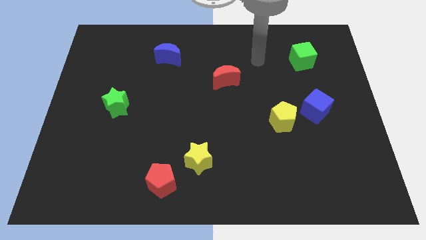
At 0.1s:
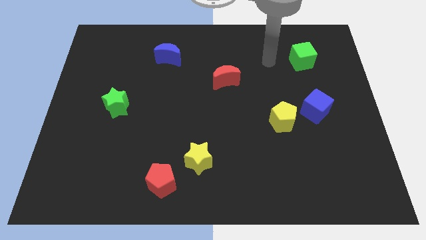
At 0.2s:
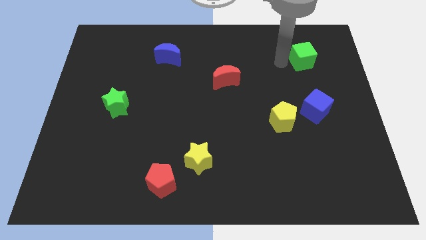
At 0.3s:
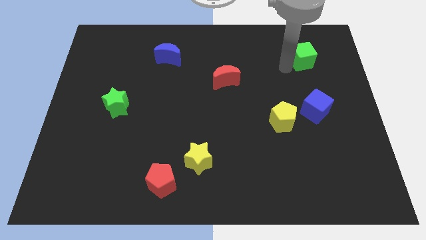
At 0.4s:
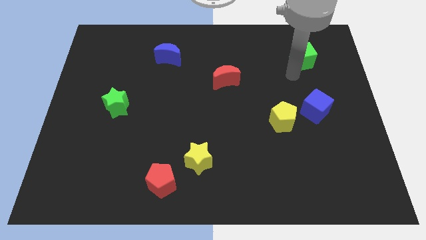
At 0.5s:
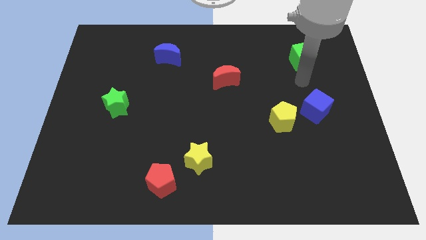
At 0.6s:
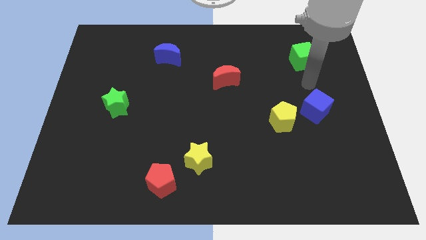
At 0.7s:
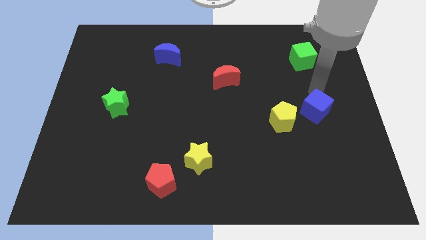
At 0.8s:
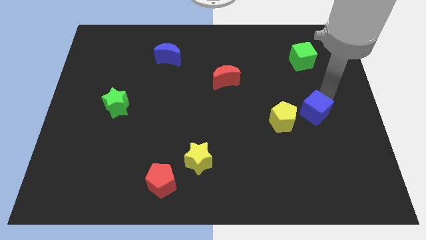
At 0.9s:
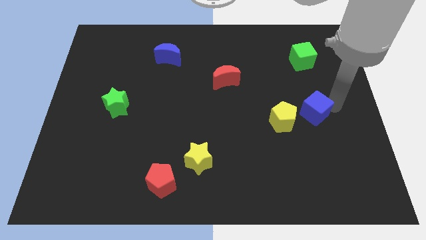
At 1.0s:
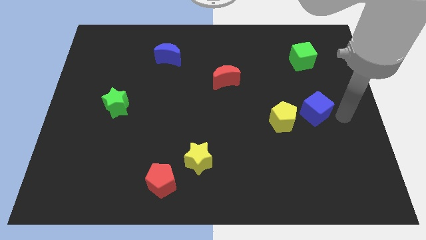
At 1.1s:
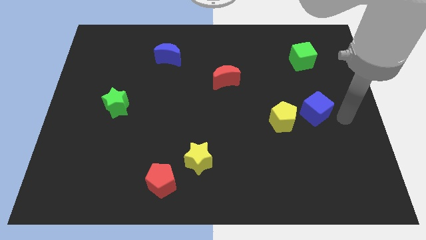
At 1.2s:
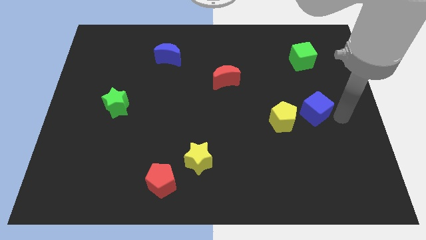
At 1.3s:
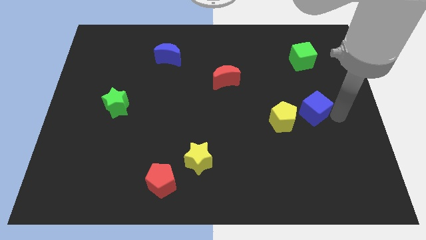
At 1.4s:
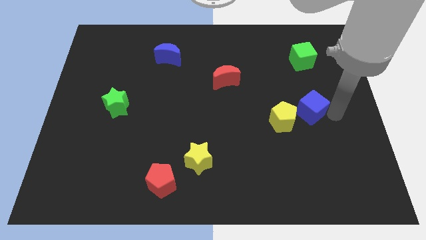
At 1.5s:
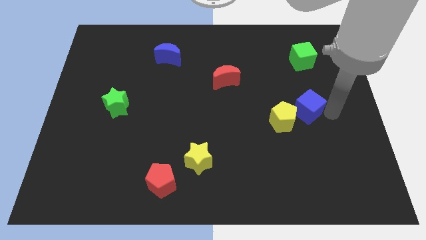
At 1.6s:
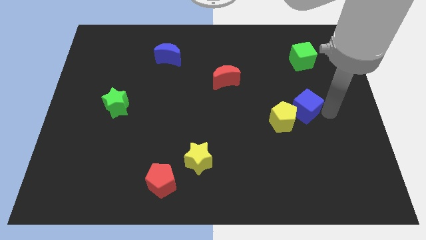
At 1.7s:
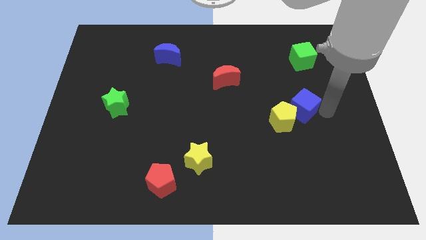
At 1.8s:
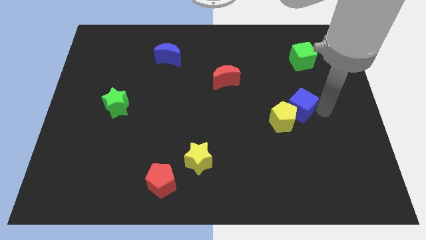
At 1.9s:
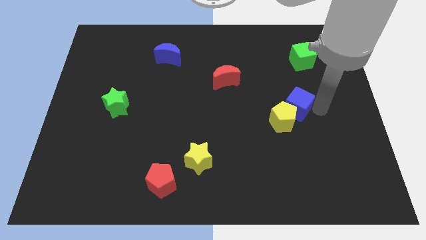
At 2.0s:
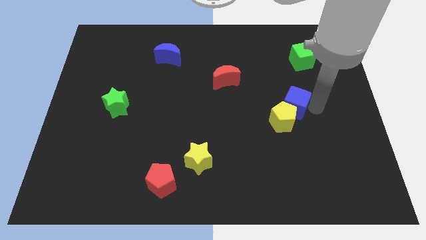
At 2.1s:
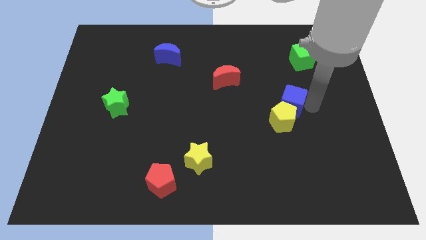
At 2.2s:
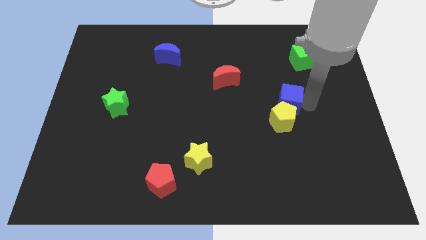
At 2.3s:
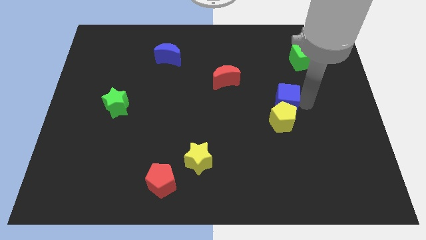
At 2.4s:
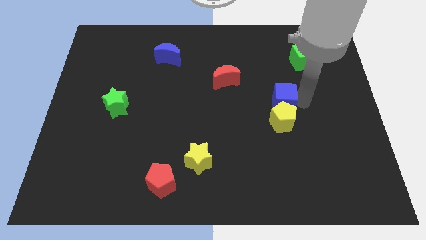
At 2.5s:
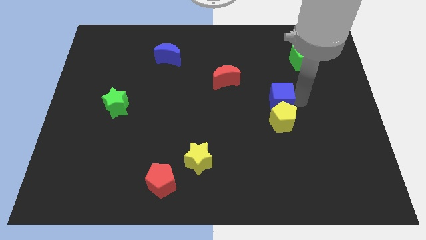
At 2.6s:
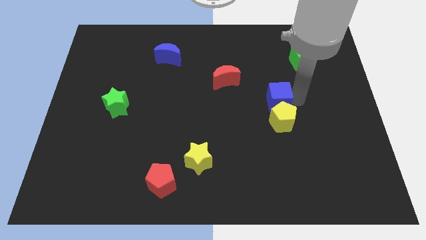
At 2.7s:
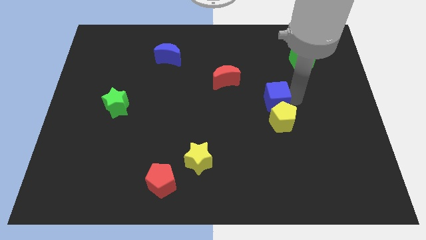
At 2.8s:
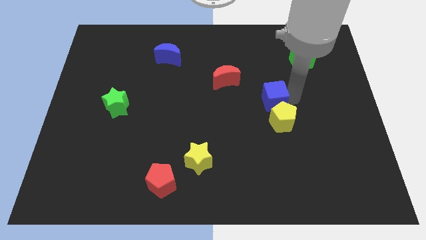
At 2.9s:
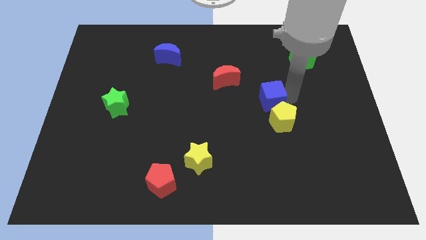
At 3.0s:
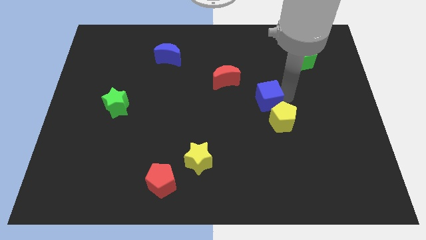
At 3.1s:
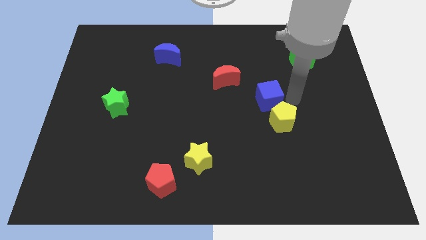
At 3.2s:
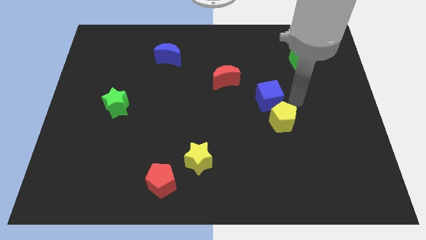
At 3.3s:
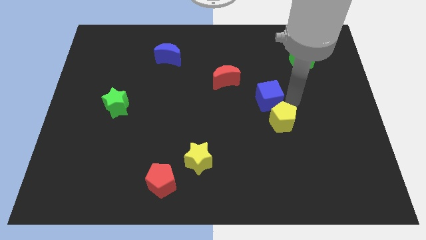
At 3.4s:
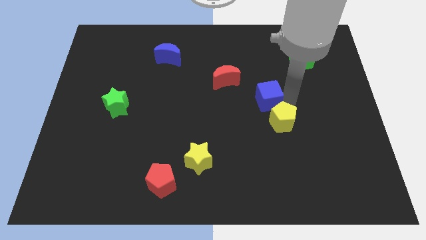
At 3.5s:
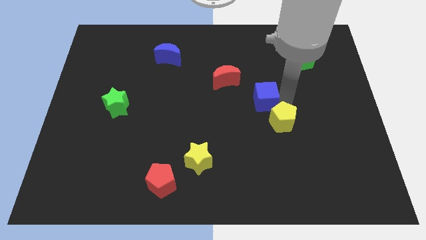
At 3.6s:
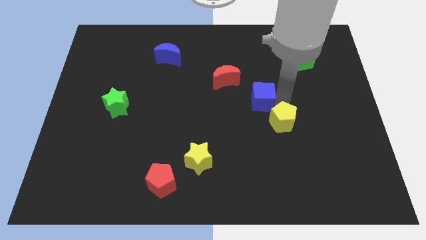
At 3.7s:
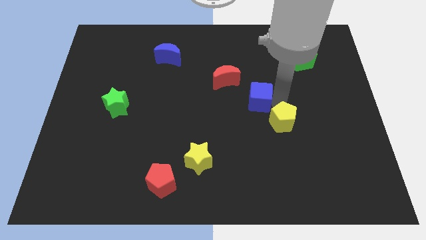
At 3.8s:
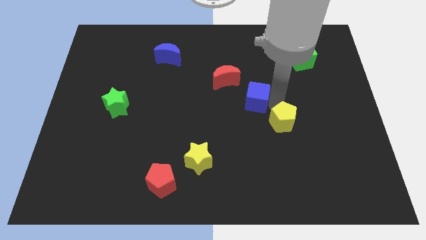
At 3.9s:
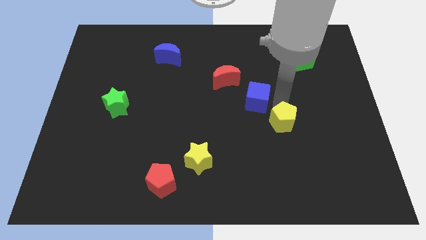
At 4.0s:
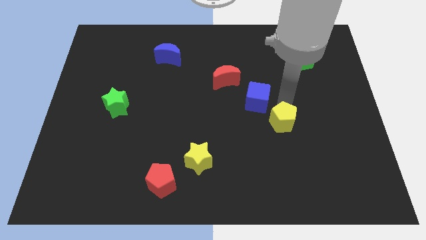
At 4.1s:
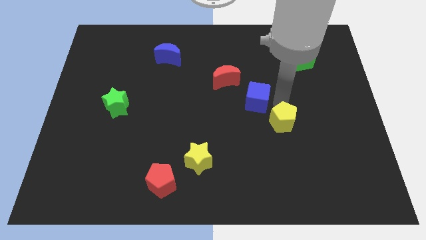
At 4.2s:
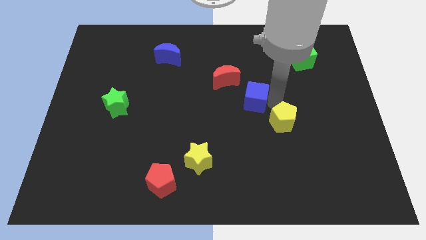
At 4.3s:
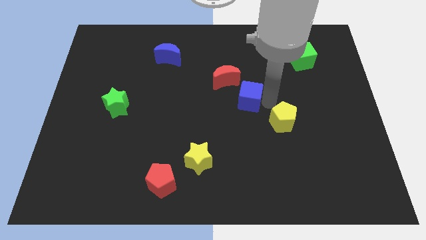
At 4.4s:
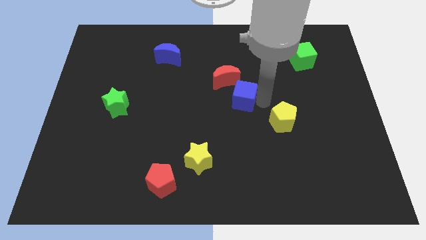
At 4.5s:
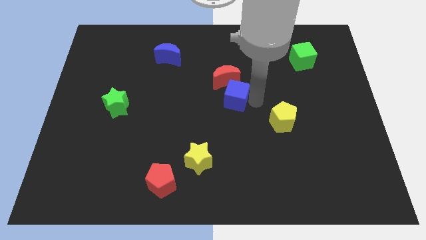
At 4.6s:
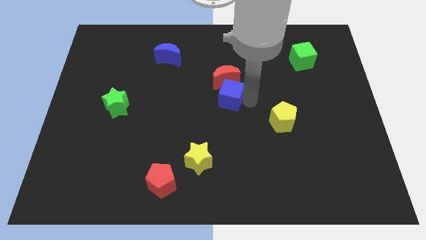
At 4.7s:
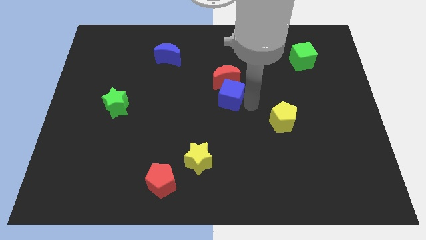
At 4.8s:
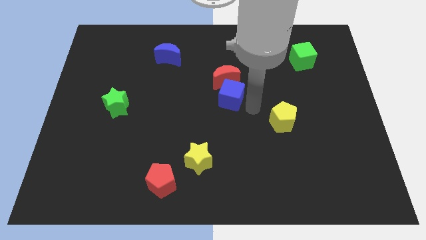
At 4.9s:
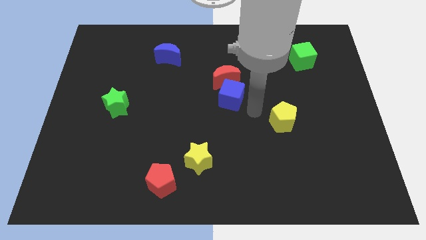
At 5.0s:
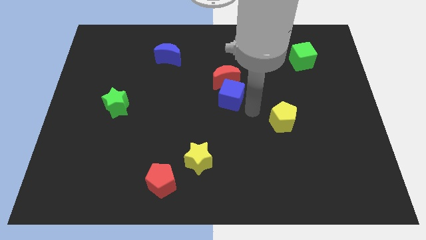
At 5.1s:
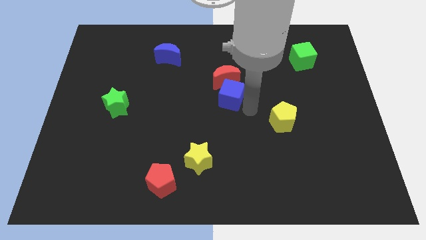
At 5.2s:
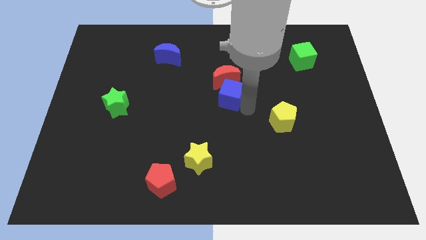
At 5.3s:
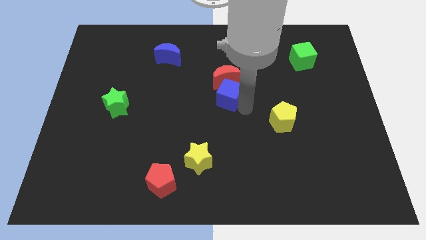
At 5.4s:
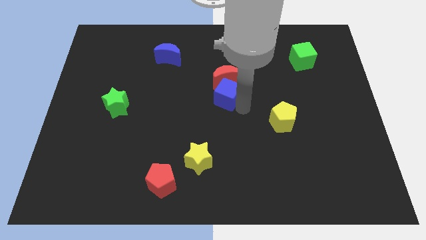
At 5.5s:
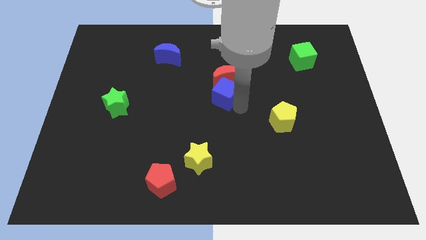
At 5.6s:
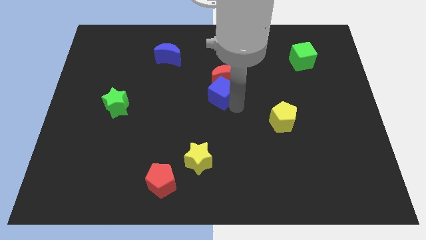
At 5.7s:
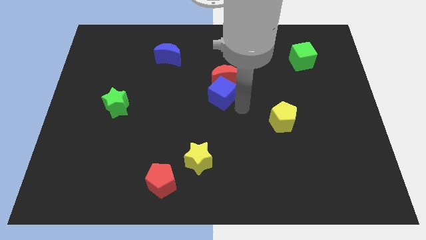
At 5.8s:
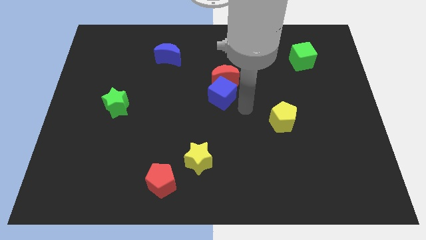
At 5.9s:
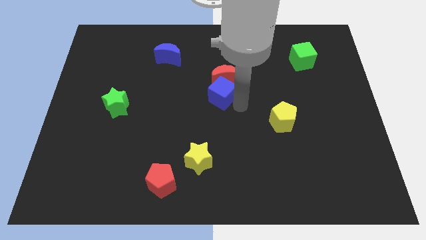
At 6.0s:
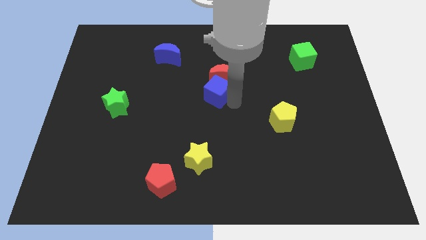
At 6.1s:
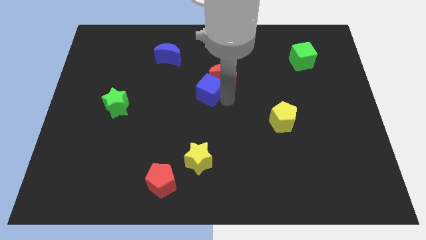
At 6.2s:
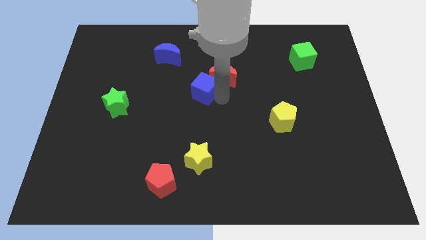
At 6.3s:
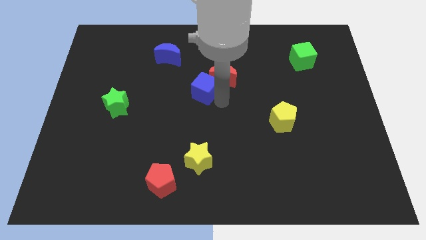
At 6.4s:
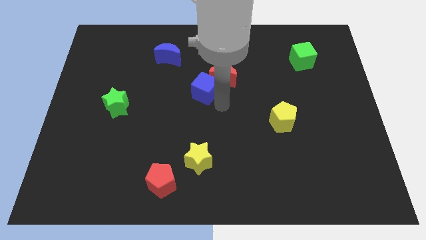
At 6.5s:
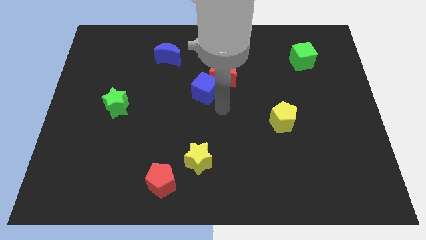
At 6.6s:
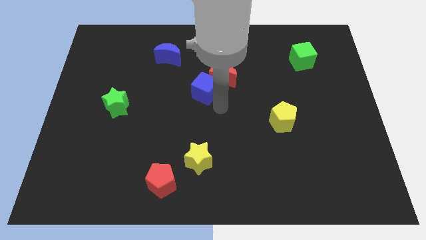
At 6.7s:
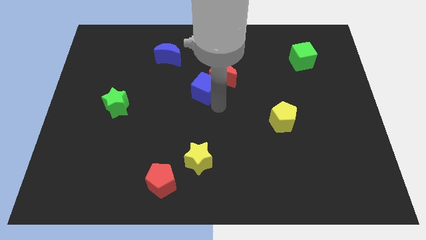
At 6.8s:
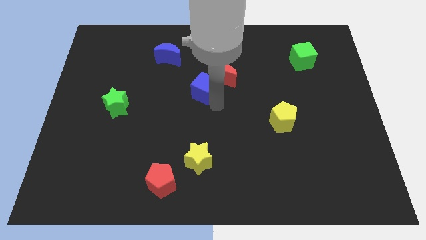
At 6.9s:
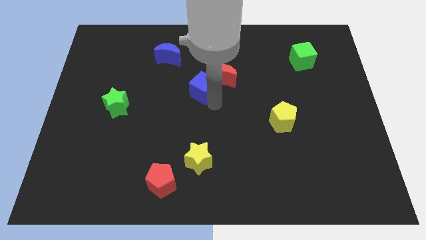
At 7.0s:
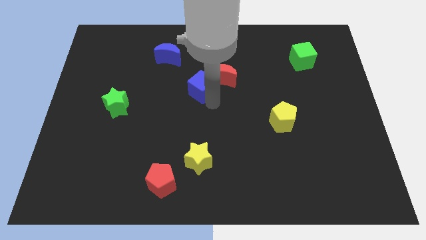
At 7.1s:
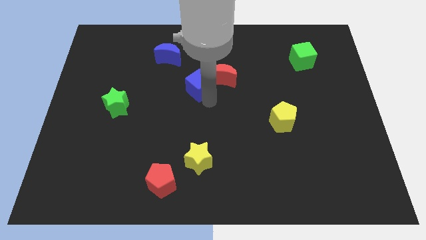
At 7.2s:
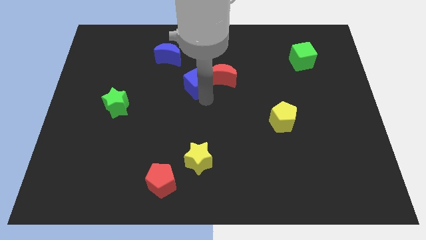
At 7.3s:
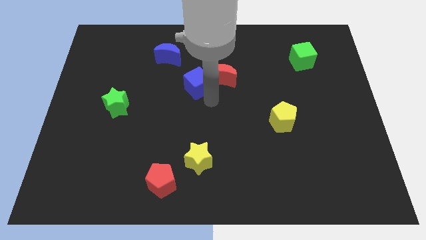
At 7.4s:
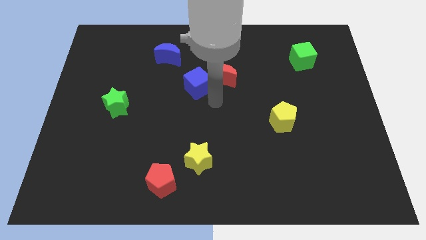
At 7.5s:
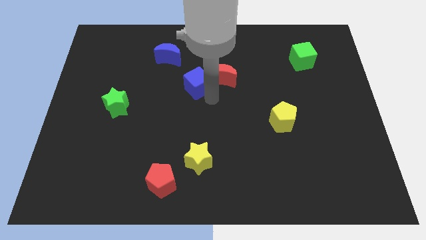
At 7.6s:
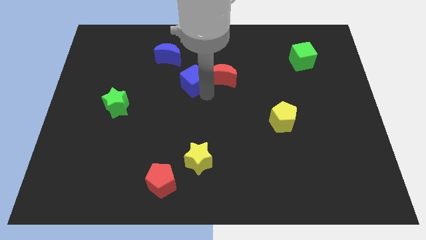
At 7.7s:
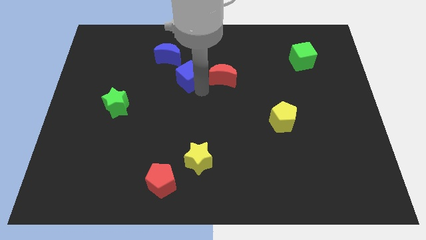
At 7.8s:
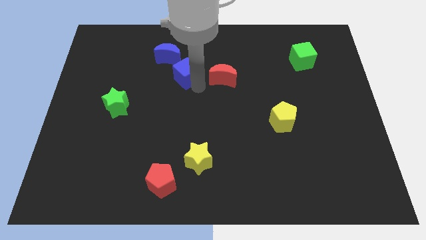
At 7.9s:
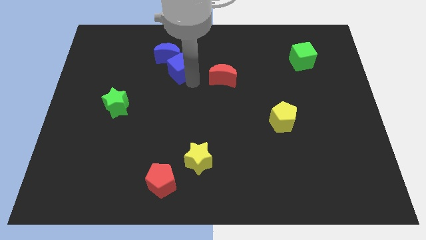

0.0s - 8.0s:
push the blue cube next to the blue moon
